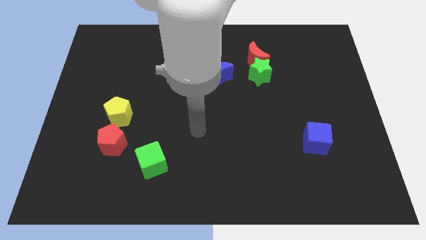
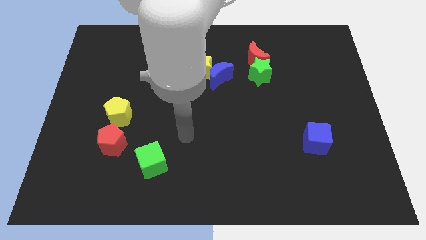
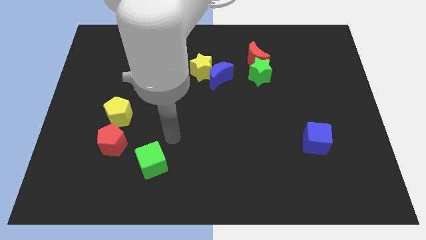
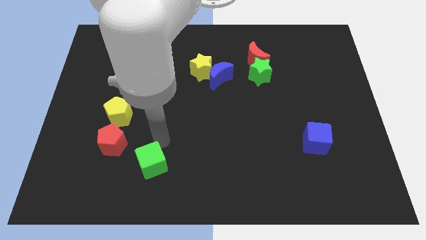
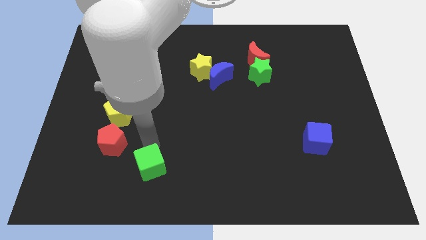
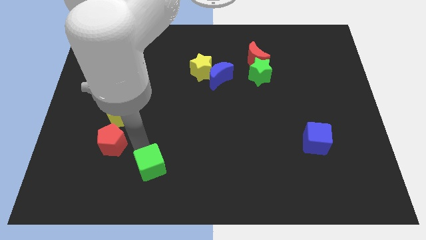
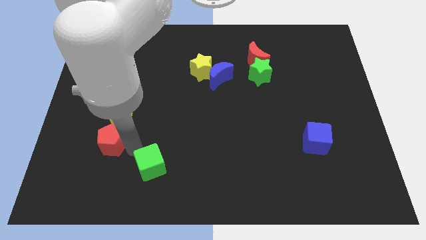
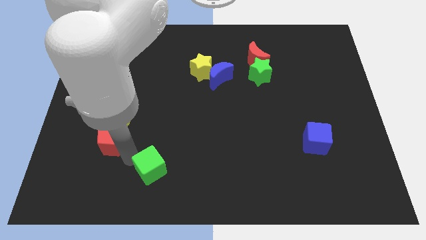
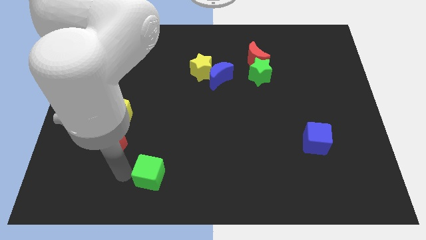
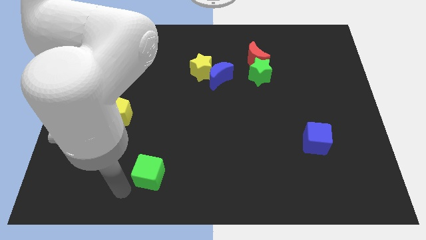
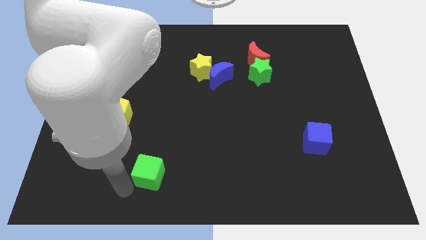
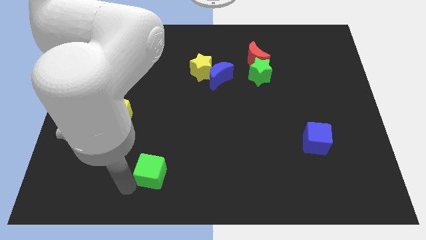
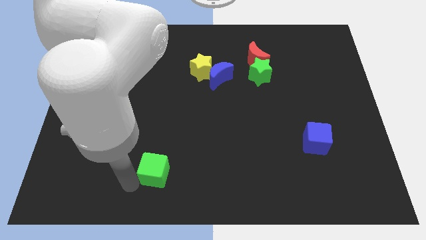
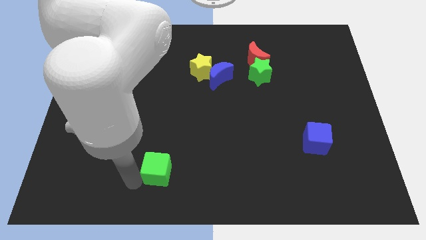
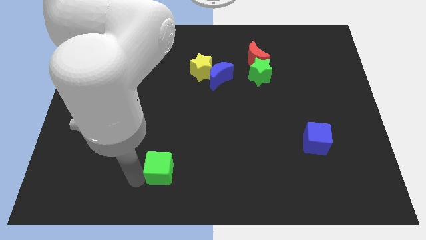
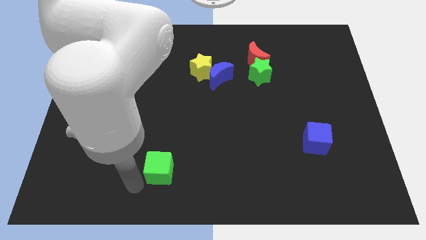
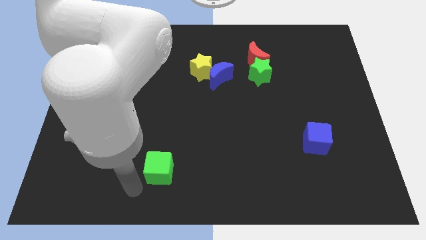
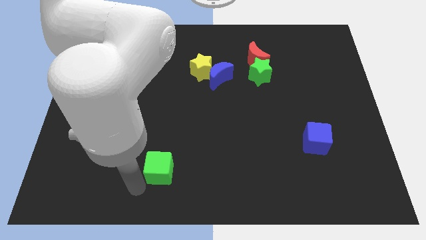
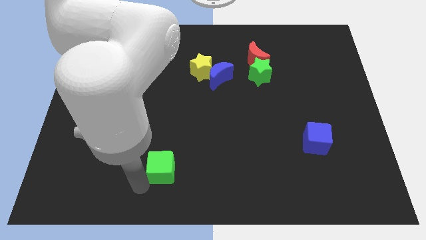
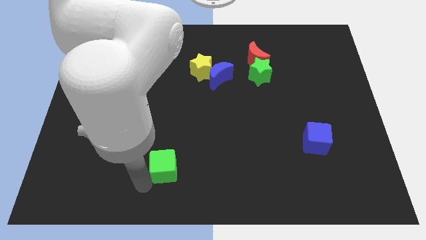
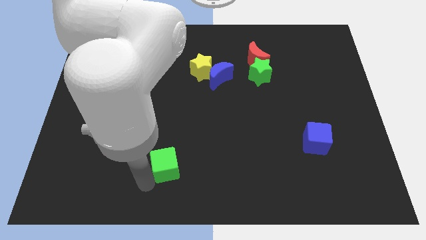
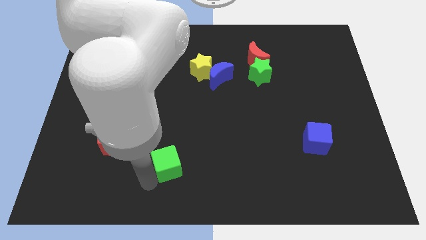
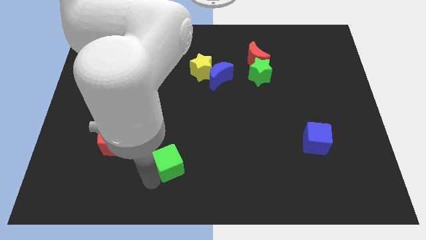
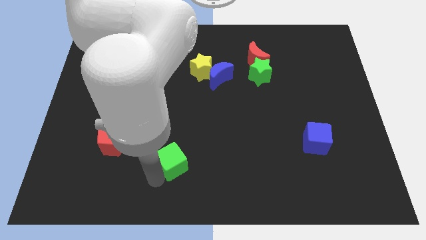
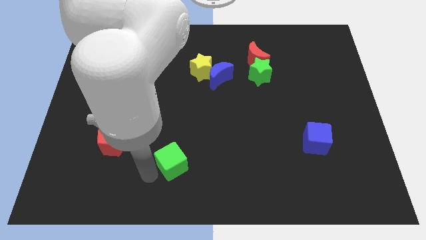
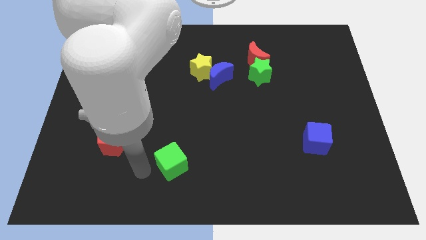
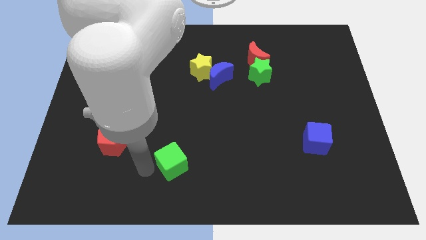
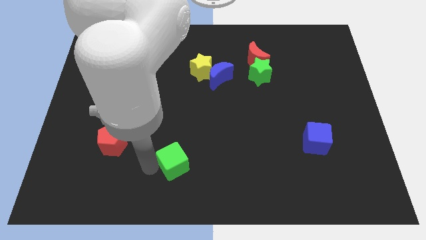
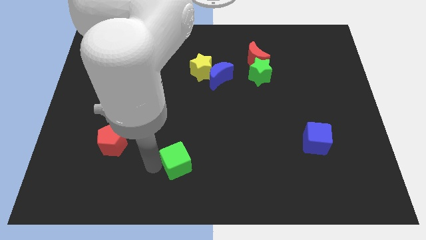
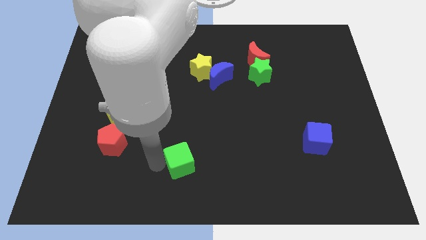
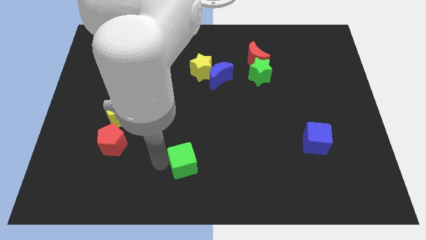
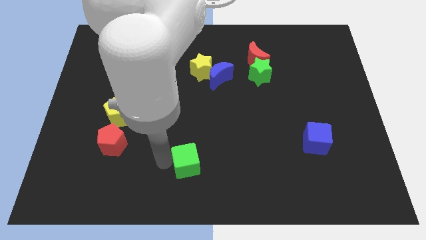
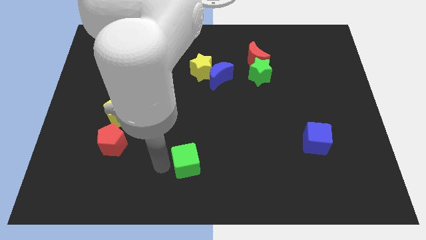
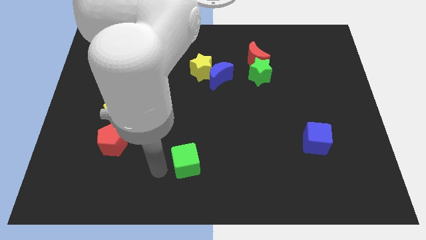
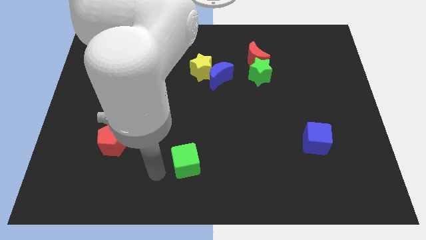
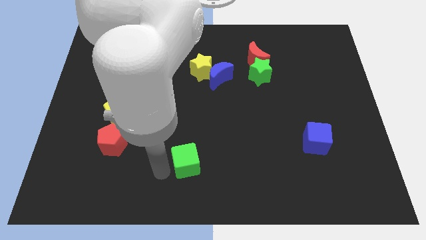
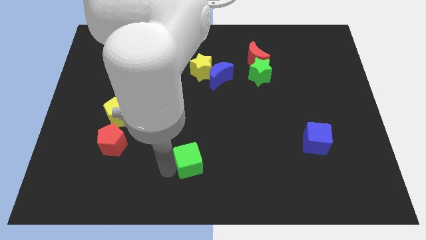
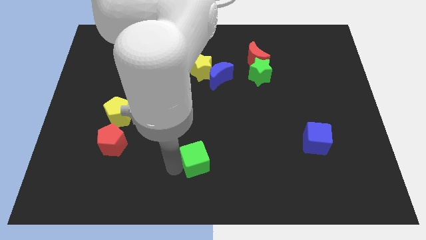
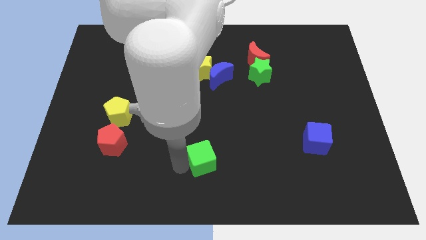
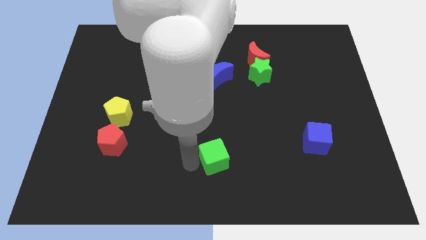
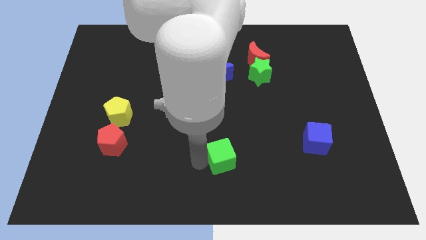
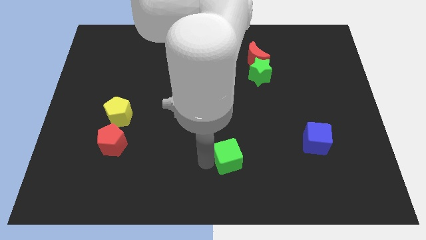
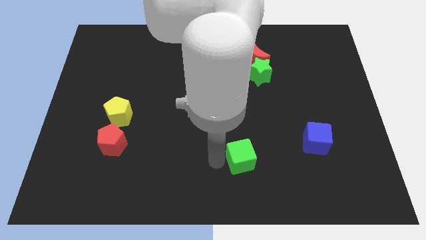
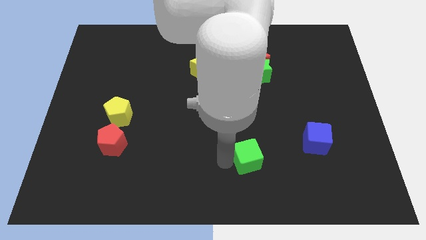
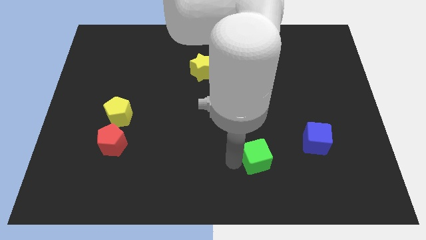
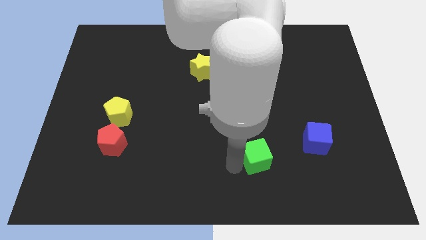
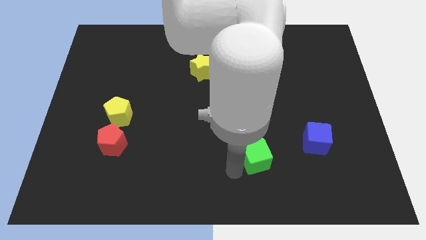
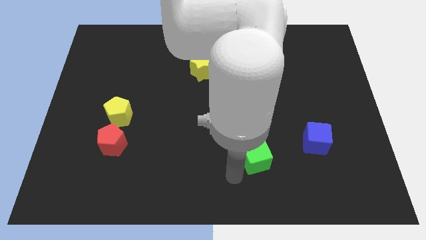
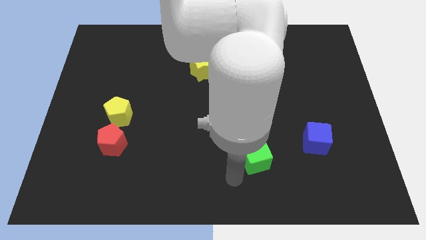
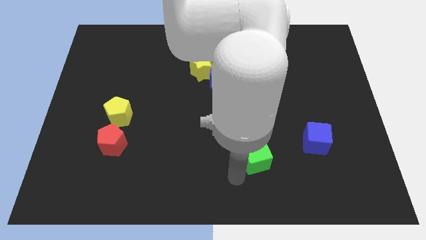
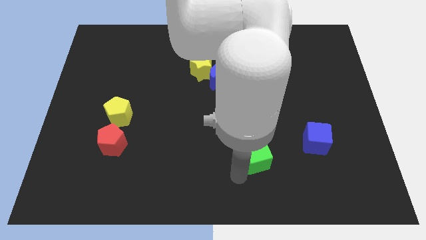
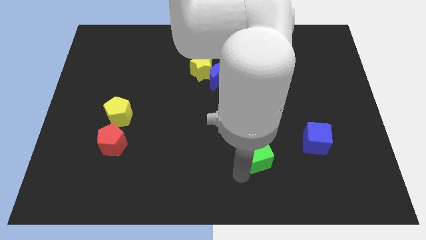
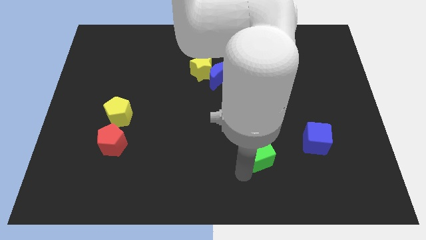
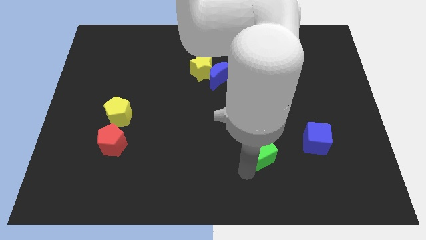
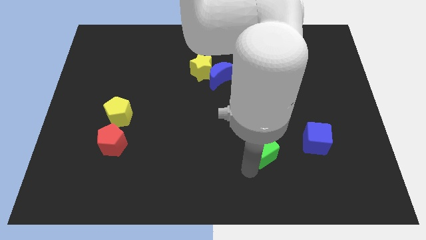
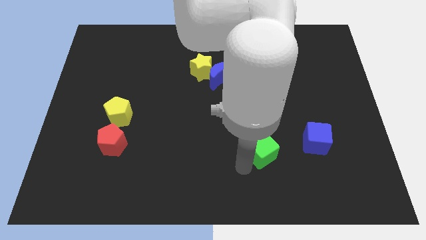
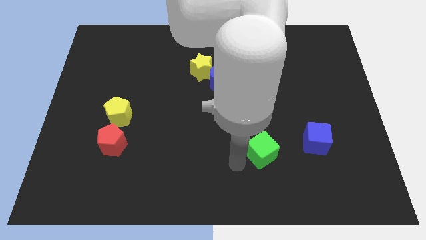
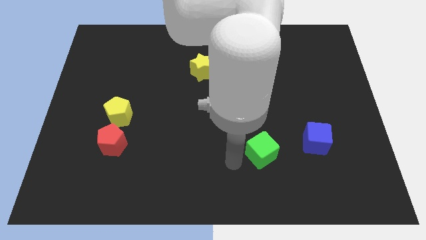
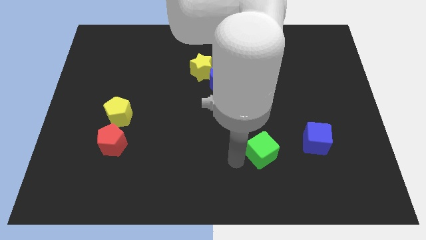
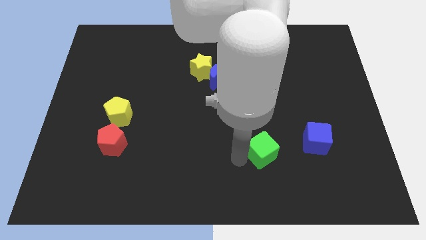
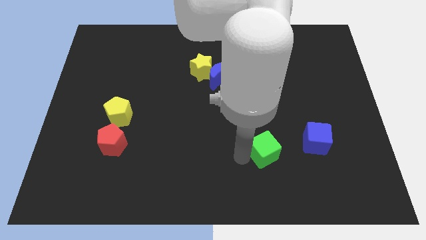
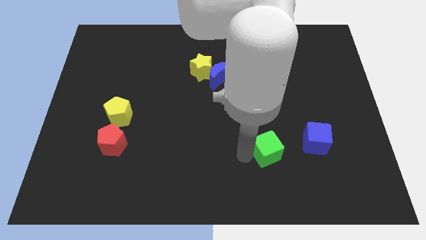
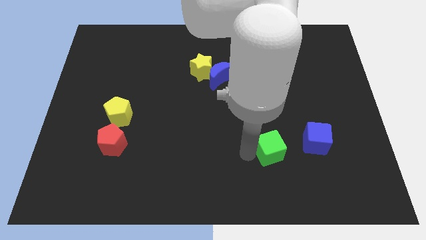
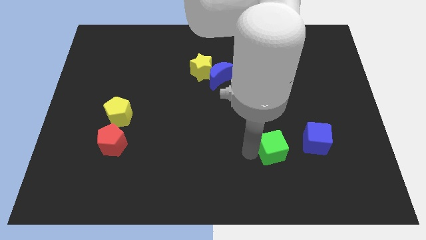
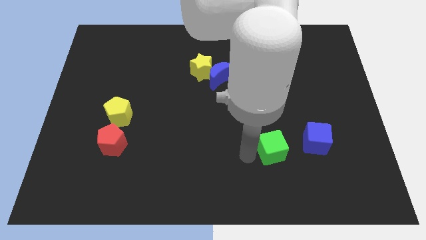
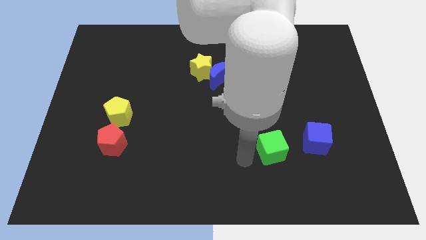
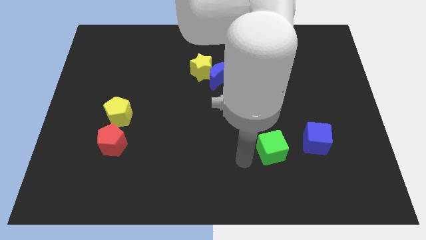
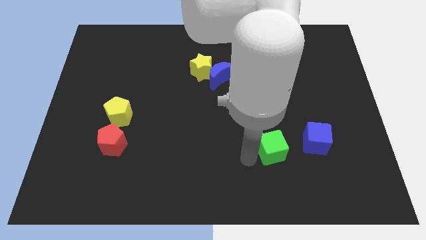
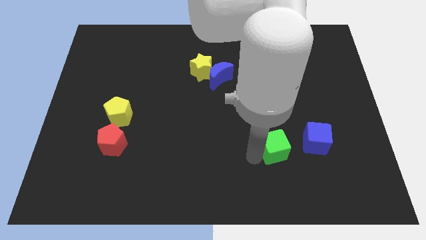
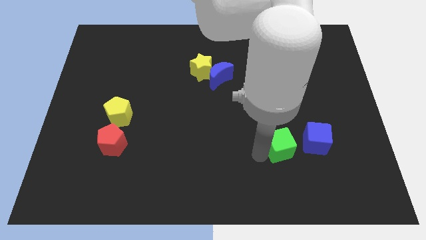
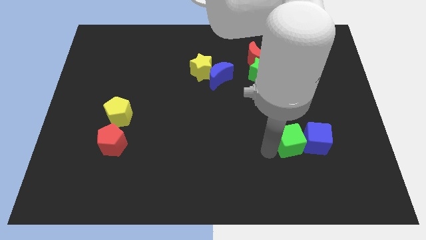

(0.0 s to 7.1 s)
move the green cube towards the blue cube

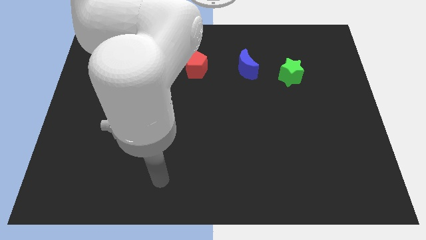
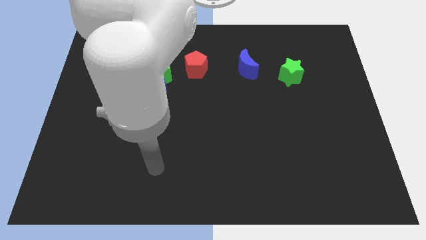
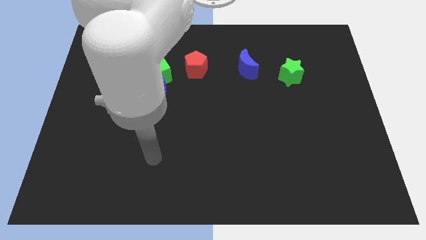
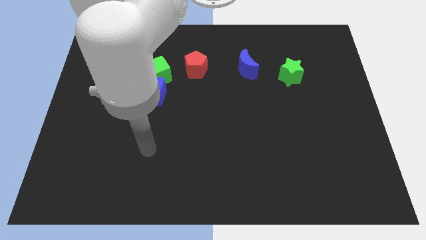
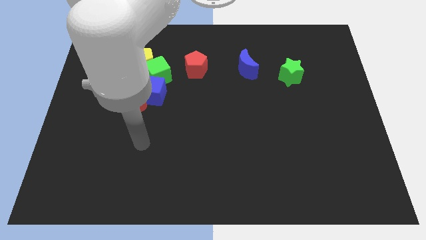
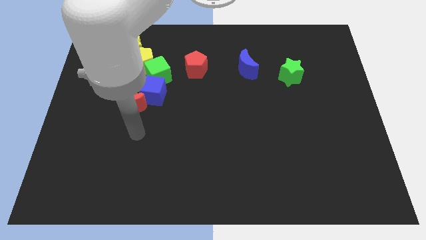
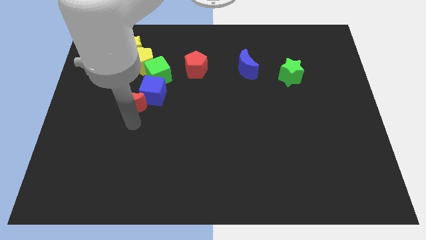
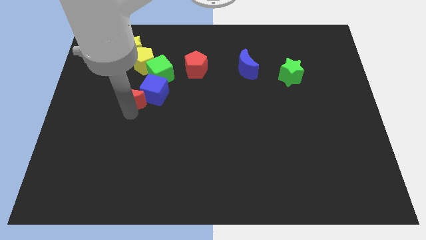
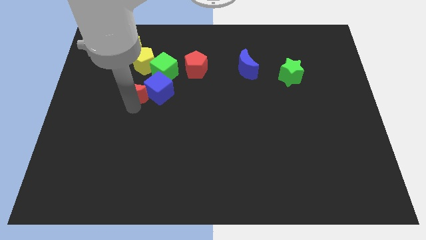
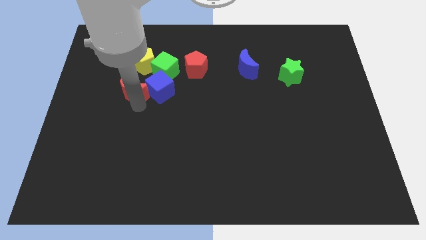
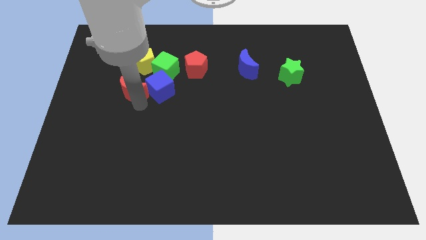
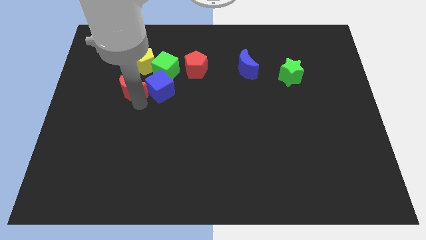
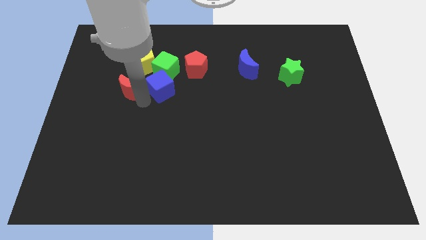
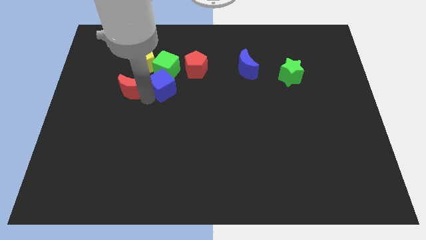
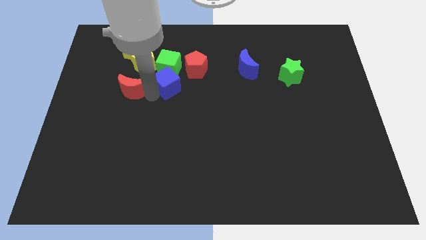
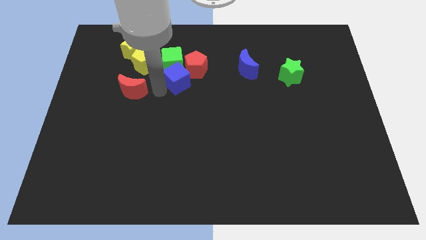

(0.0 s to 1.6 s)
move the blue cube towards the red pentagon
